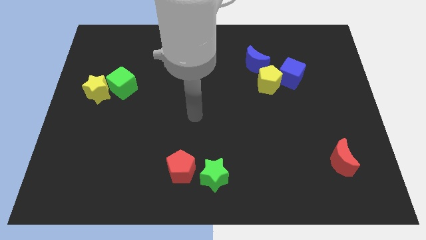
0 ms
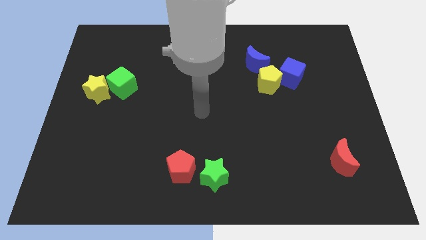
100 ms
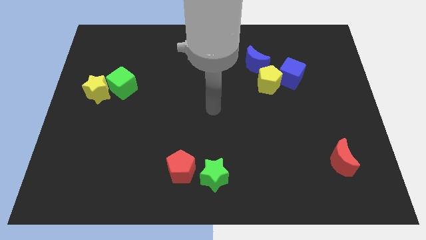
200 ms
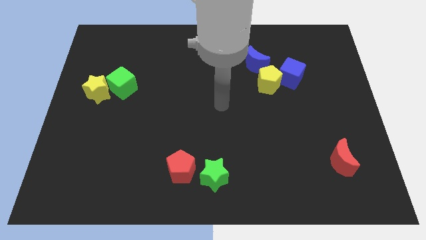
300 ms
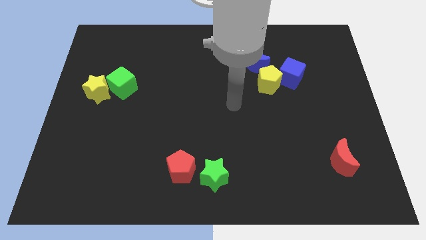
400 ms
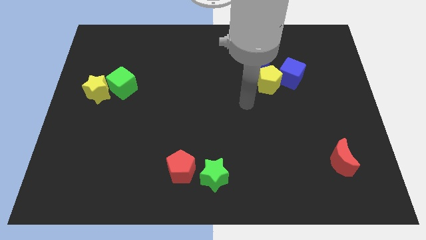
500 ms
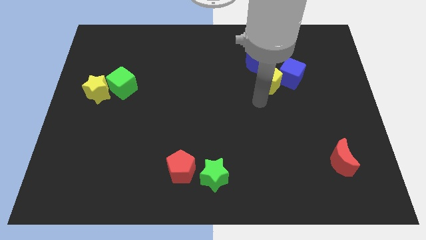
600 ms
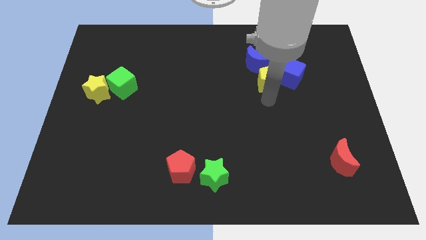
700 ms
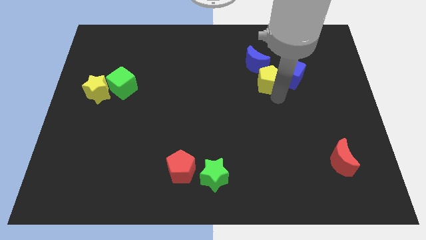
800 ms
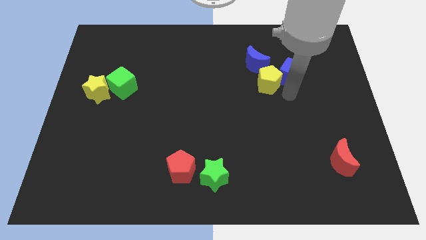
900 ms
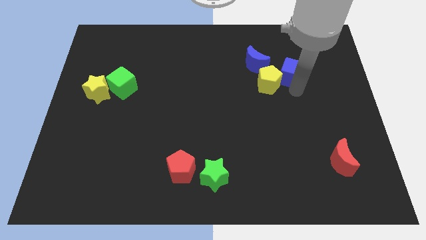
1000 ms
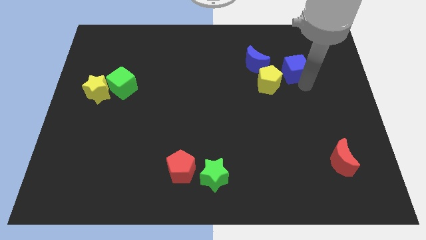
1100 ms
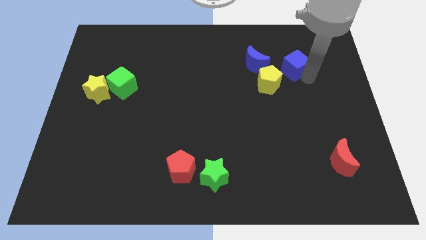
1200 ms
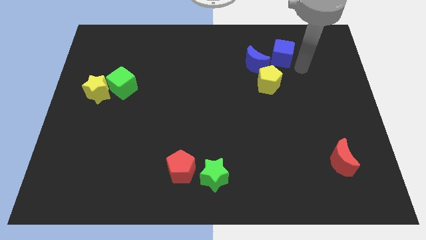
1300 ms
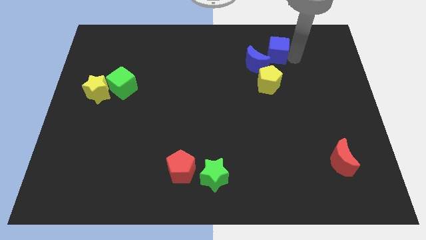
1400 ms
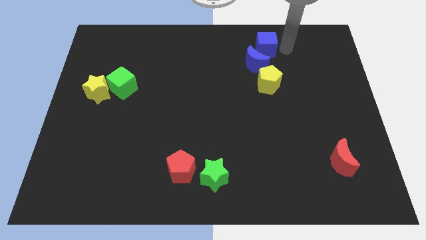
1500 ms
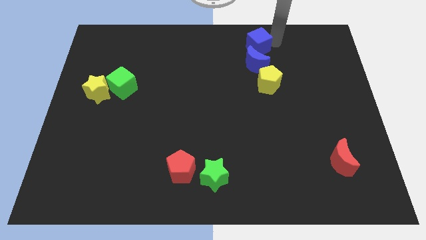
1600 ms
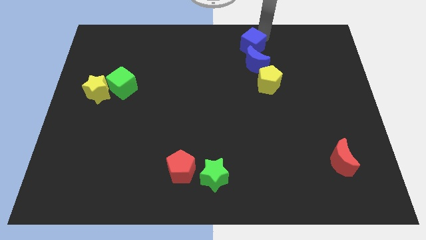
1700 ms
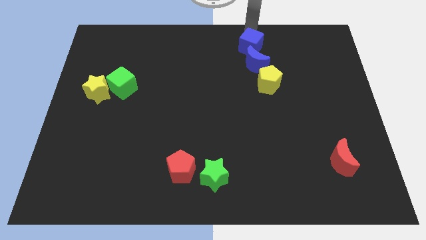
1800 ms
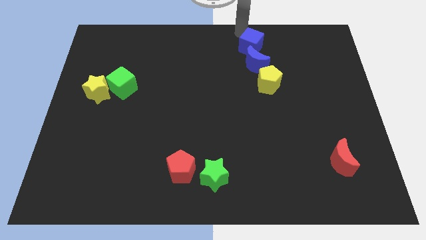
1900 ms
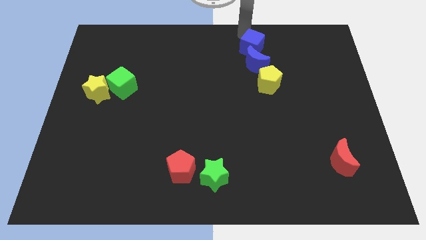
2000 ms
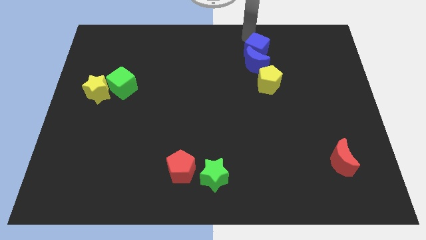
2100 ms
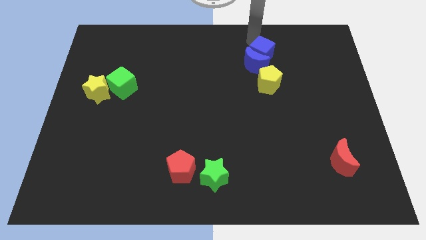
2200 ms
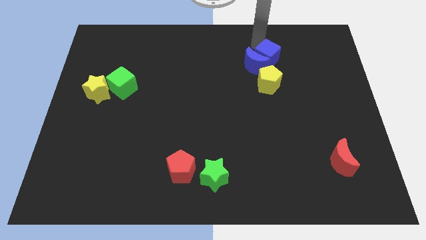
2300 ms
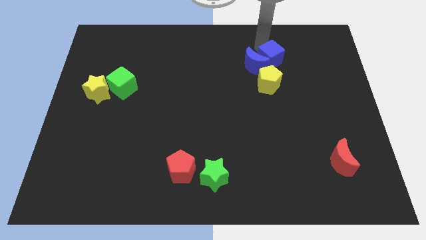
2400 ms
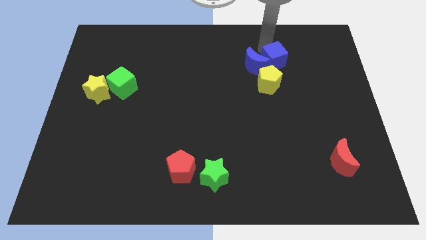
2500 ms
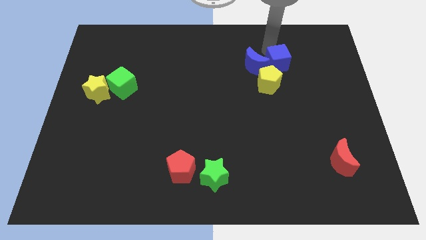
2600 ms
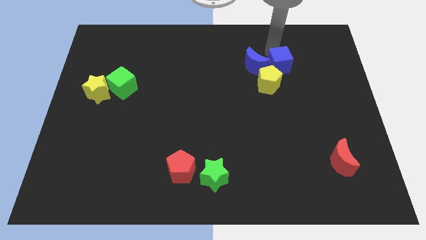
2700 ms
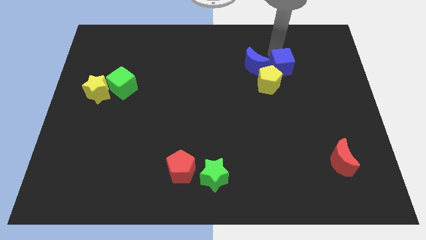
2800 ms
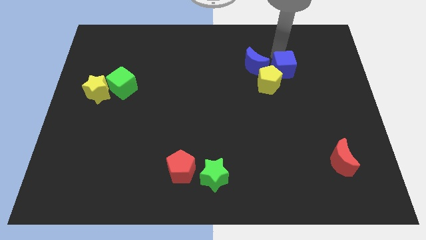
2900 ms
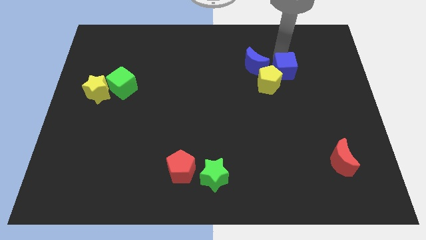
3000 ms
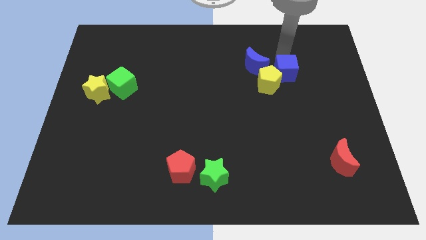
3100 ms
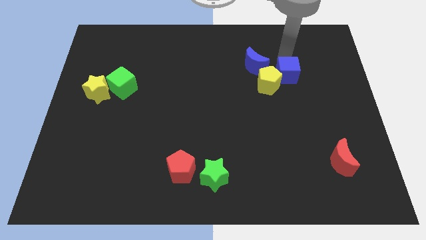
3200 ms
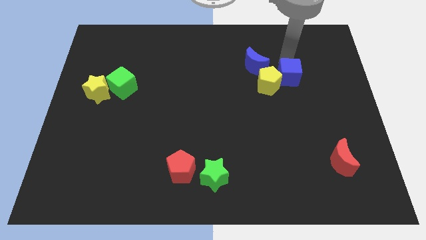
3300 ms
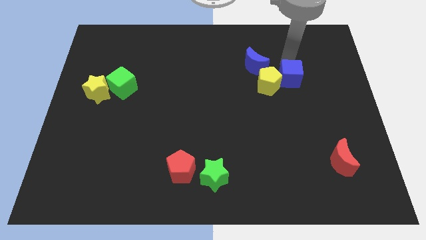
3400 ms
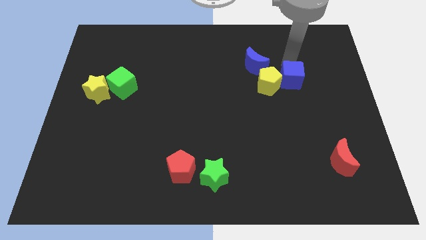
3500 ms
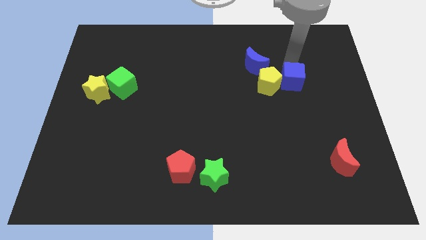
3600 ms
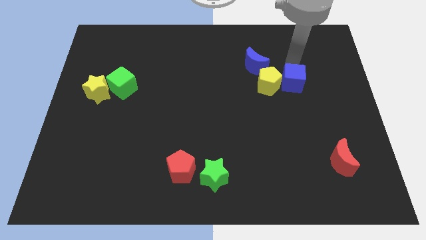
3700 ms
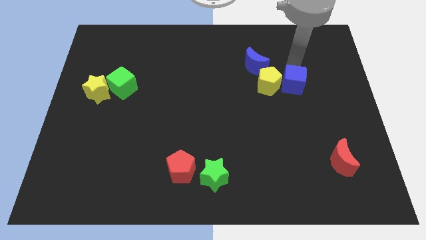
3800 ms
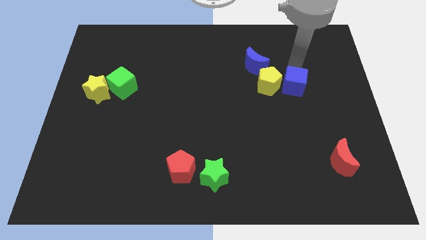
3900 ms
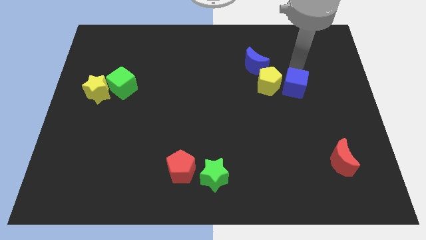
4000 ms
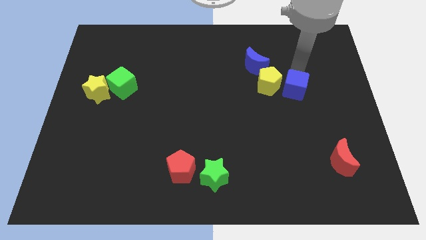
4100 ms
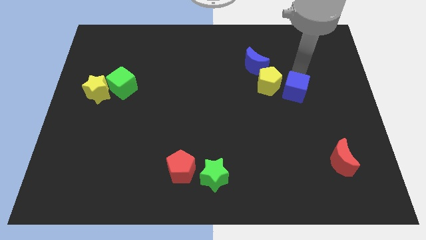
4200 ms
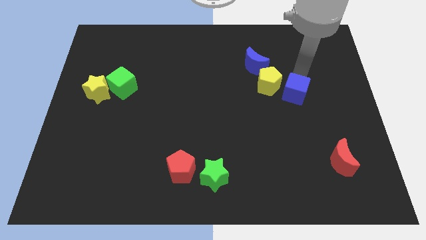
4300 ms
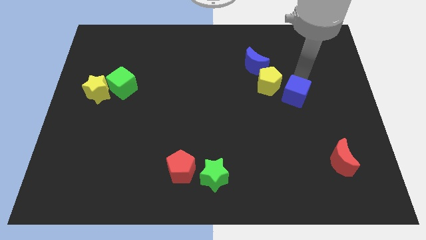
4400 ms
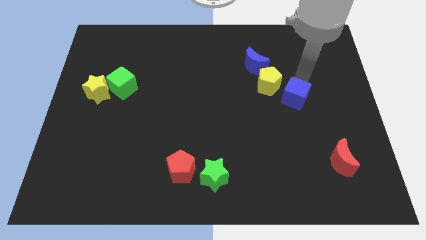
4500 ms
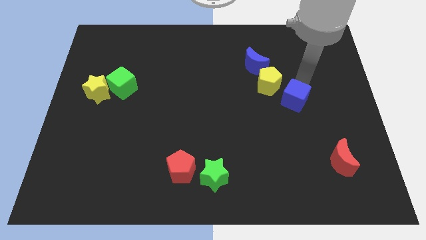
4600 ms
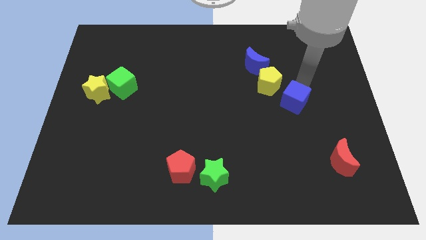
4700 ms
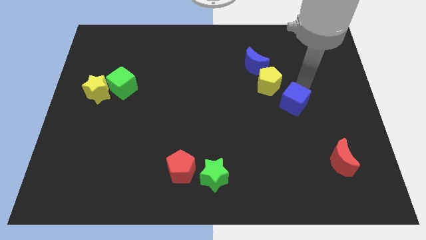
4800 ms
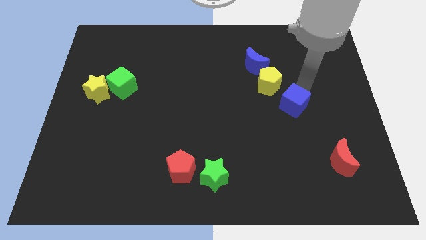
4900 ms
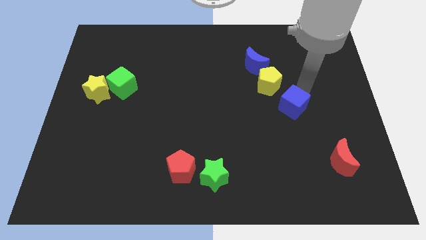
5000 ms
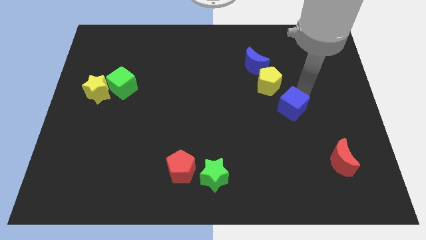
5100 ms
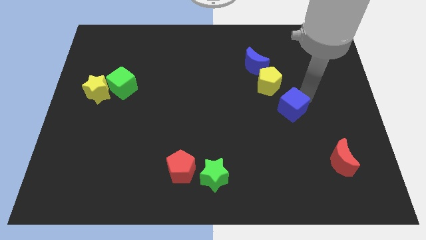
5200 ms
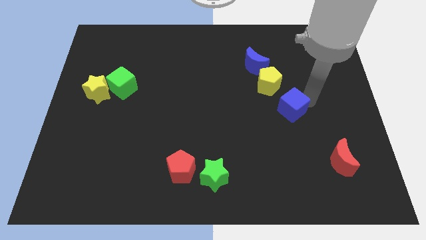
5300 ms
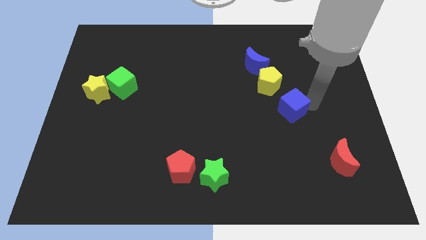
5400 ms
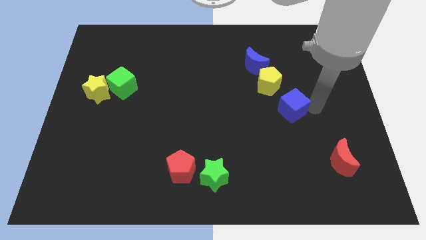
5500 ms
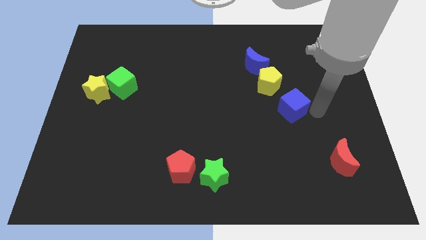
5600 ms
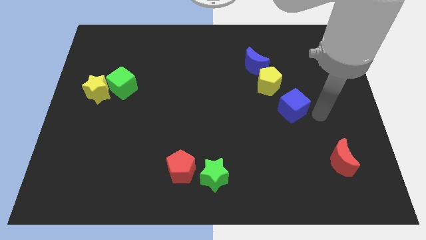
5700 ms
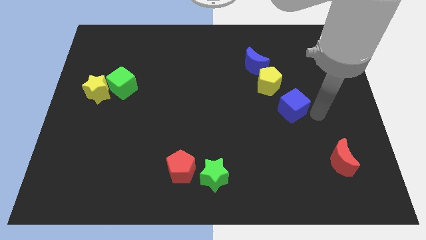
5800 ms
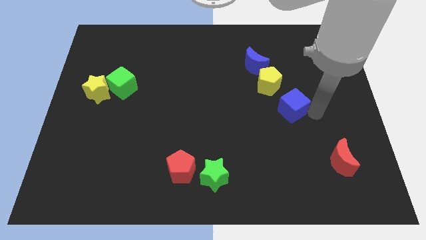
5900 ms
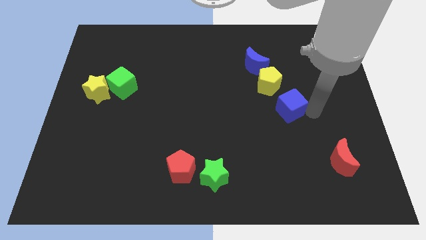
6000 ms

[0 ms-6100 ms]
slightly slide the blue cube down and to the left diagonally

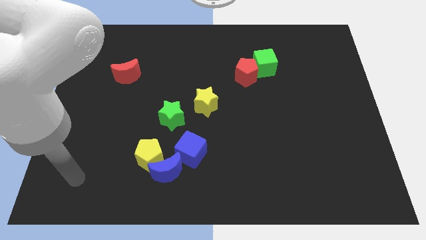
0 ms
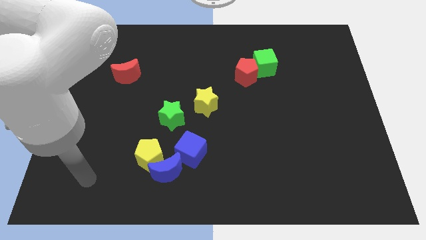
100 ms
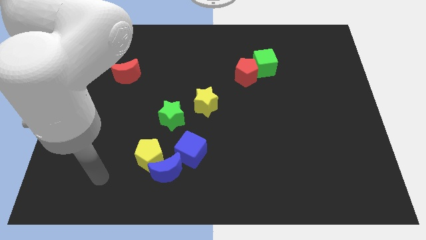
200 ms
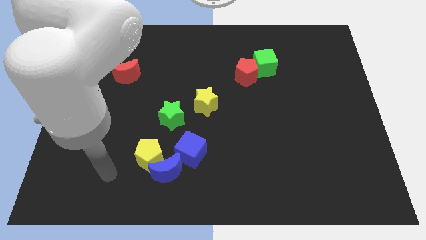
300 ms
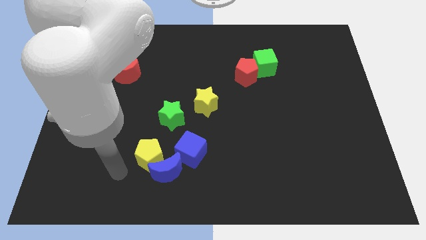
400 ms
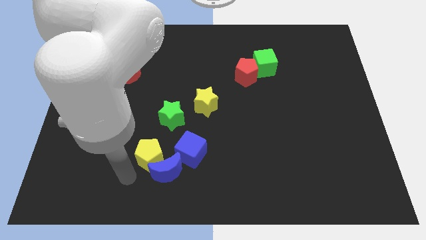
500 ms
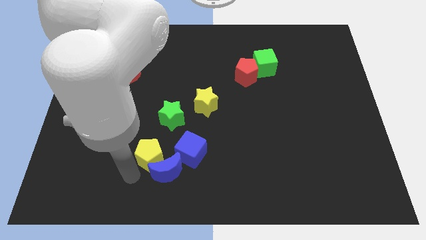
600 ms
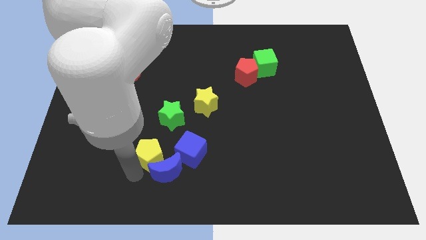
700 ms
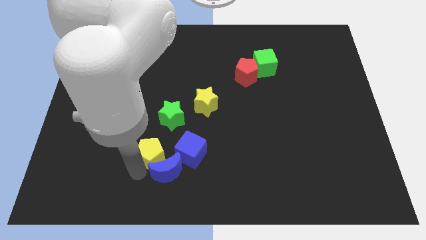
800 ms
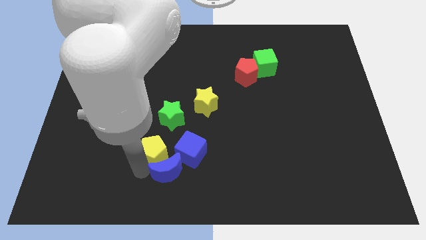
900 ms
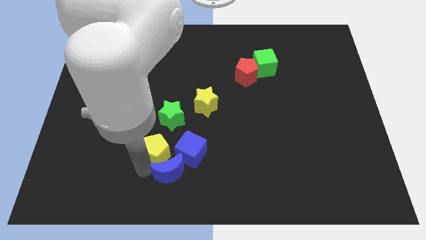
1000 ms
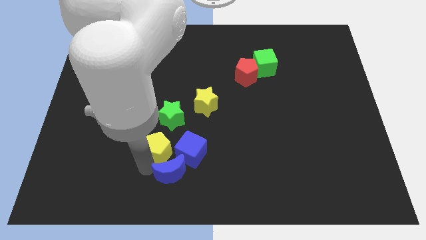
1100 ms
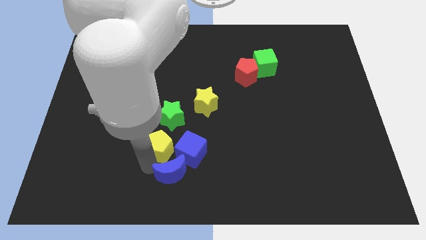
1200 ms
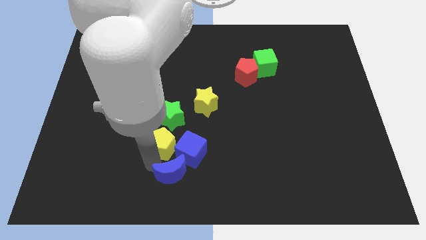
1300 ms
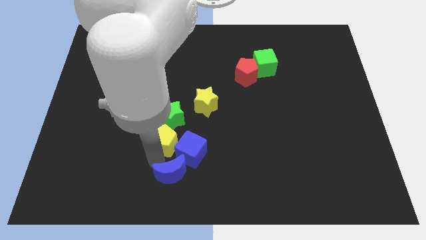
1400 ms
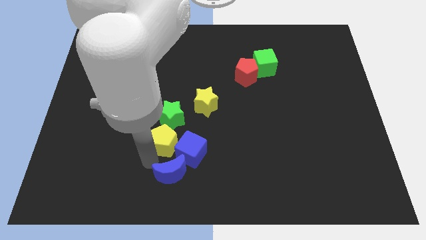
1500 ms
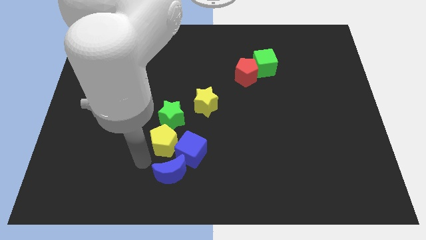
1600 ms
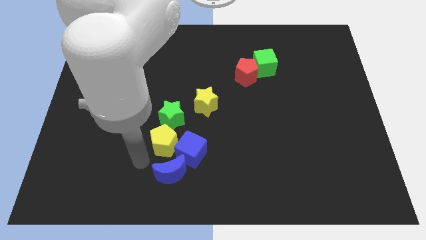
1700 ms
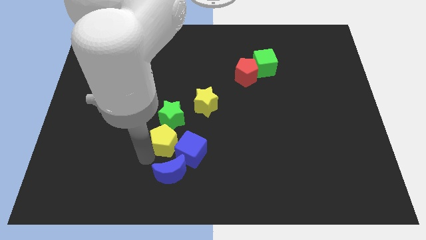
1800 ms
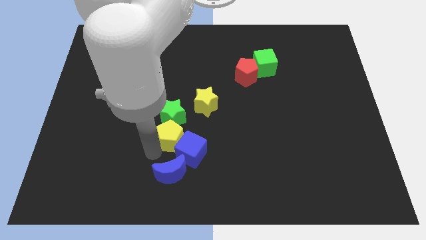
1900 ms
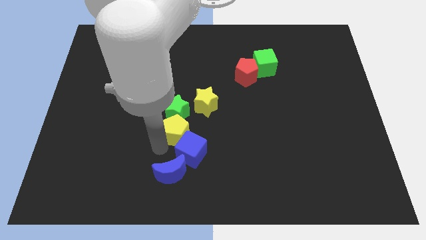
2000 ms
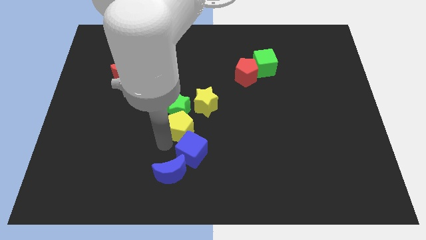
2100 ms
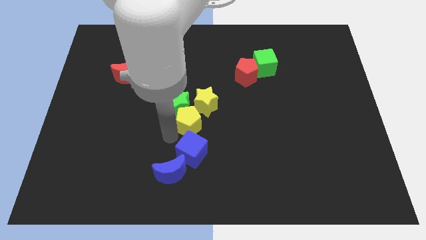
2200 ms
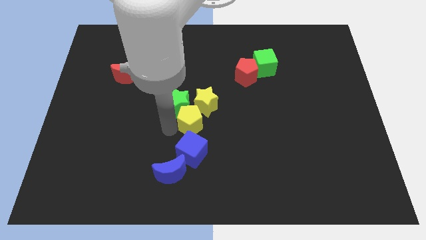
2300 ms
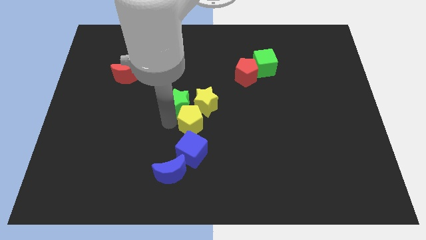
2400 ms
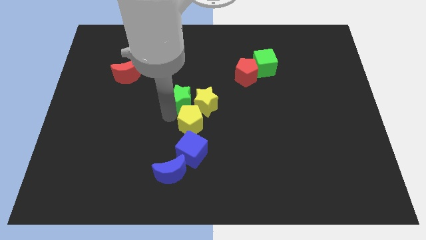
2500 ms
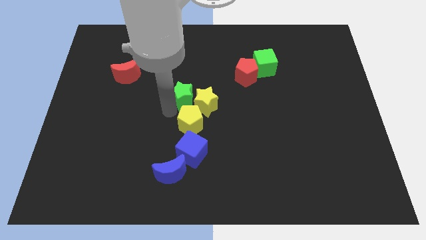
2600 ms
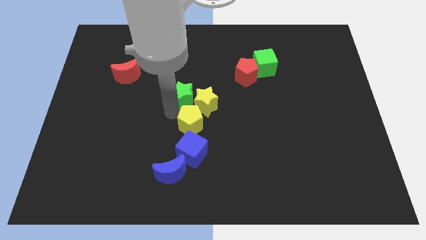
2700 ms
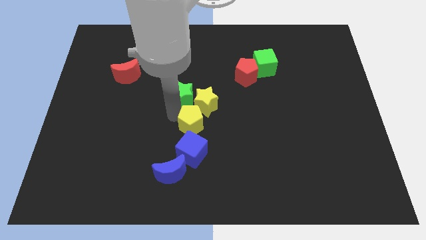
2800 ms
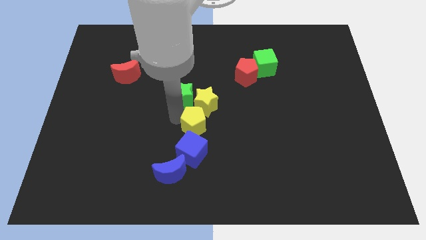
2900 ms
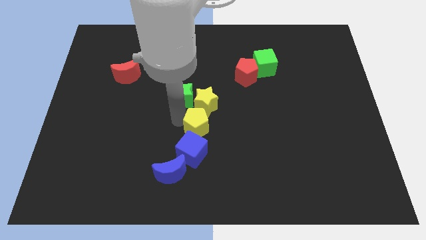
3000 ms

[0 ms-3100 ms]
slightly slide the yellow pentagon to the right
